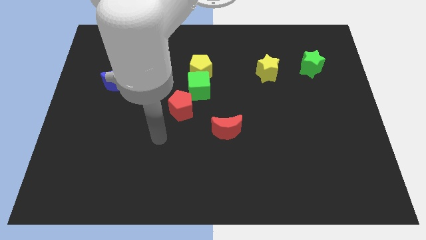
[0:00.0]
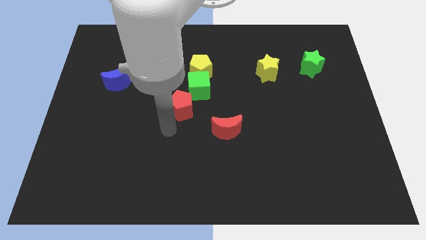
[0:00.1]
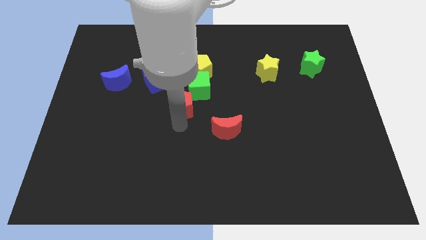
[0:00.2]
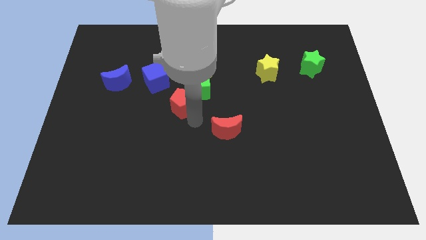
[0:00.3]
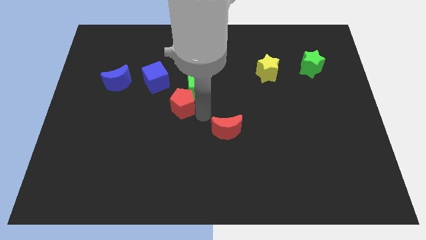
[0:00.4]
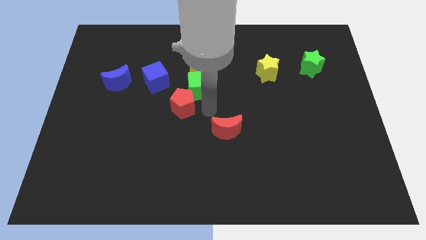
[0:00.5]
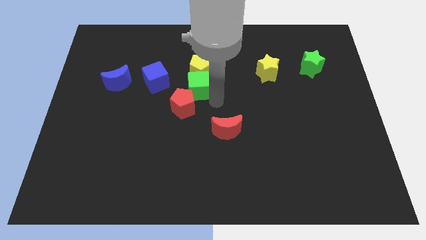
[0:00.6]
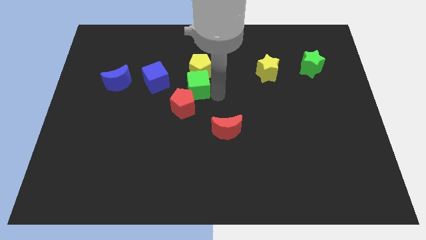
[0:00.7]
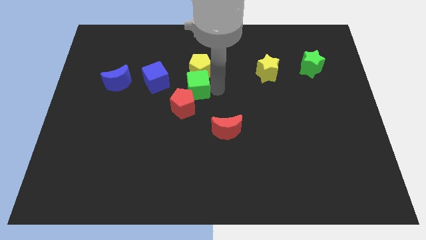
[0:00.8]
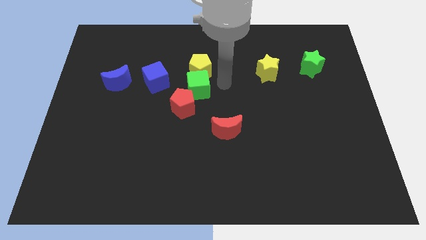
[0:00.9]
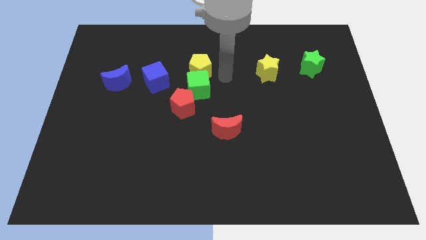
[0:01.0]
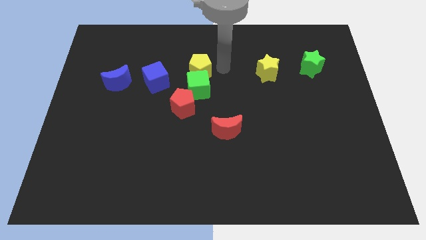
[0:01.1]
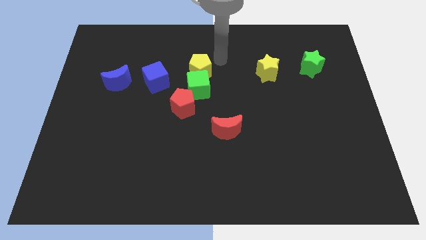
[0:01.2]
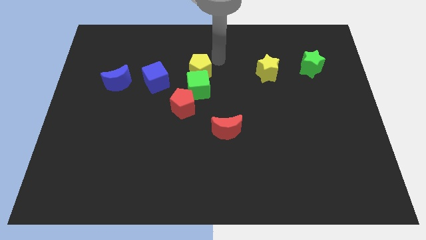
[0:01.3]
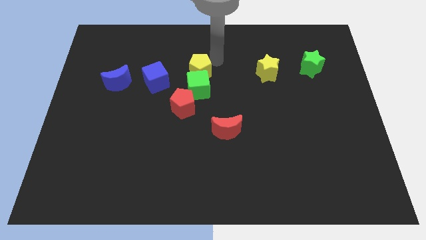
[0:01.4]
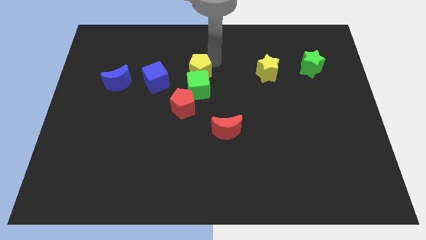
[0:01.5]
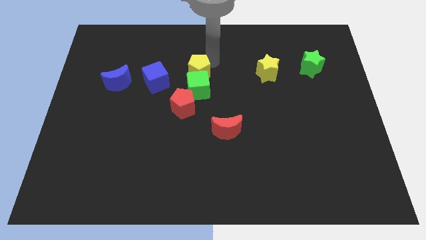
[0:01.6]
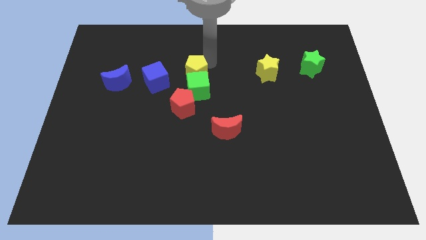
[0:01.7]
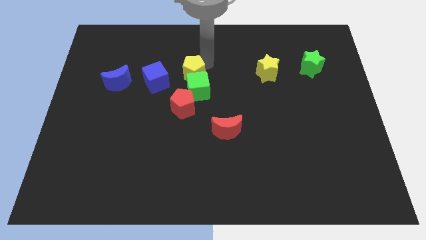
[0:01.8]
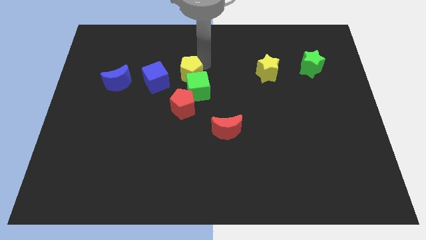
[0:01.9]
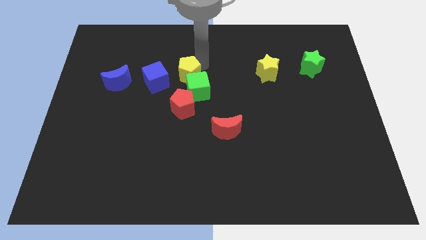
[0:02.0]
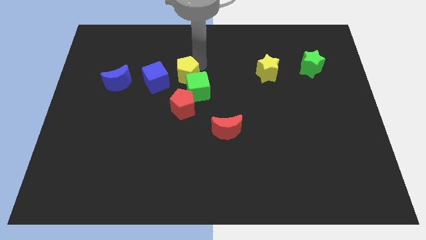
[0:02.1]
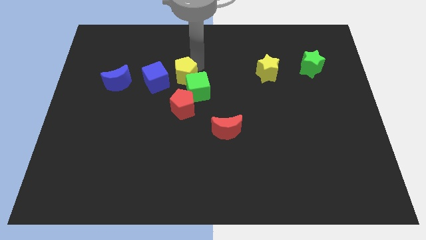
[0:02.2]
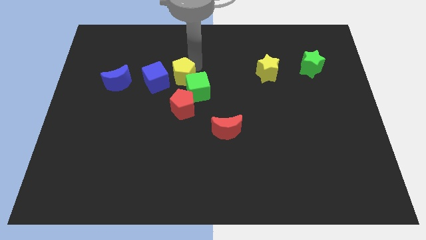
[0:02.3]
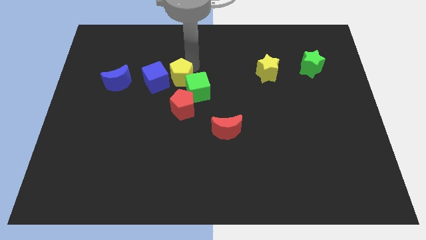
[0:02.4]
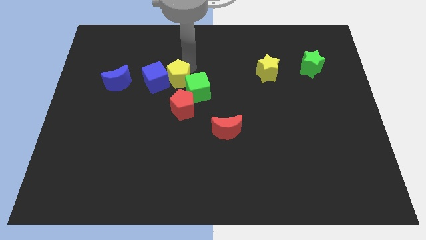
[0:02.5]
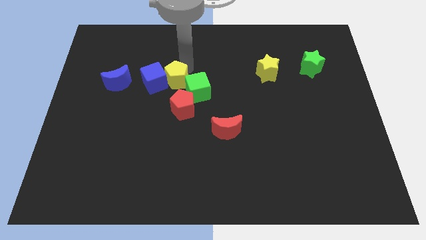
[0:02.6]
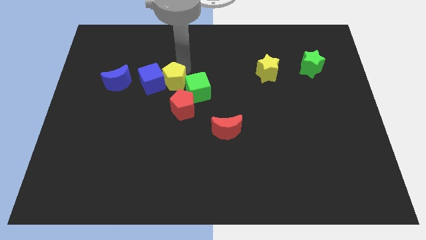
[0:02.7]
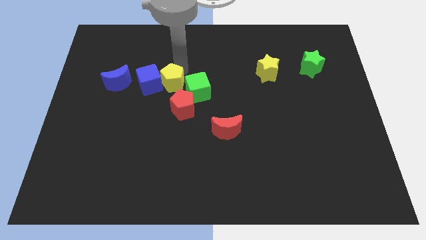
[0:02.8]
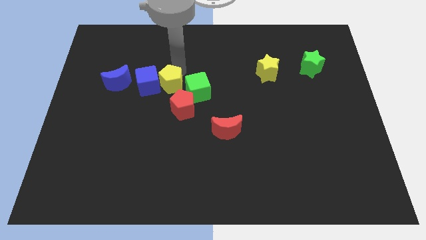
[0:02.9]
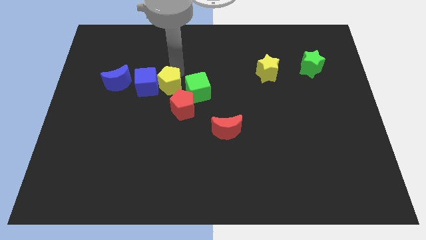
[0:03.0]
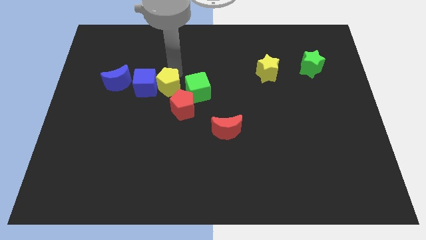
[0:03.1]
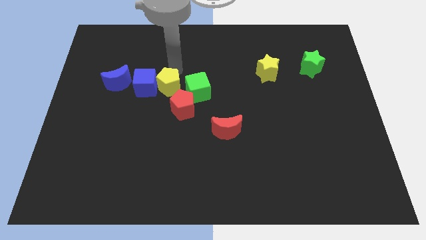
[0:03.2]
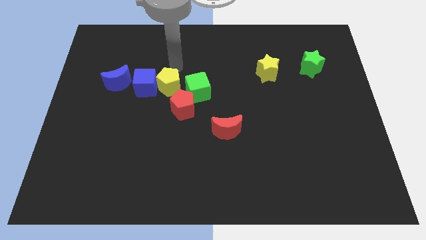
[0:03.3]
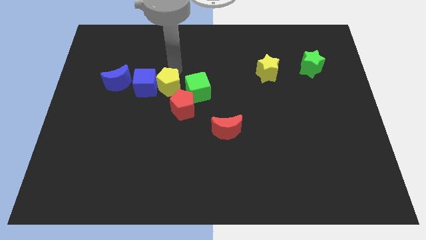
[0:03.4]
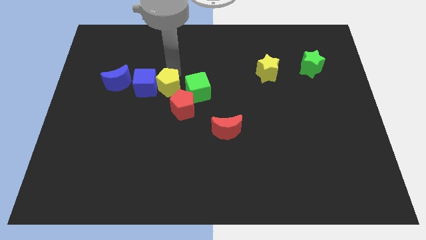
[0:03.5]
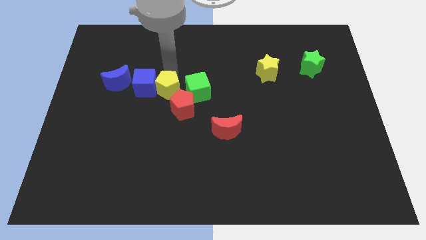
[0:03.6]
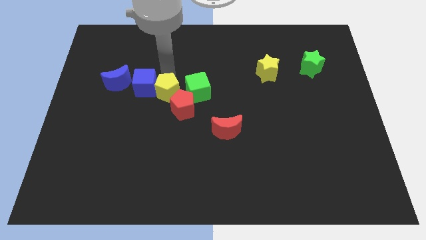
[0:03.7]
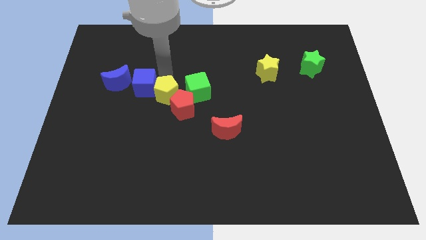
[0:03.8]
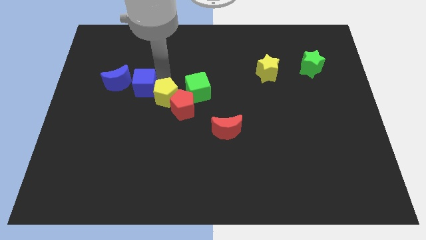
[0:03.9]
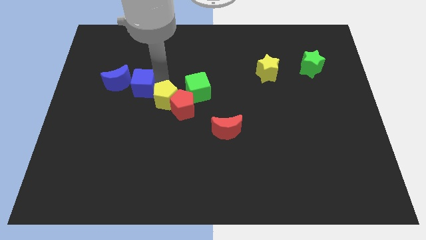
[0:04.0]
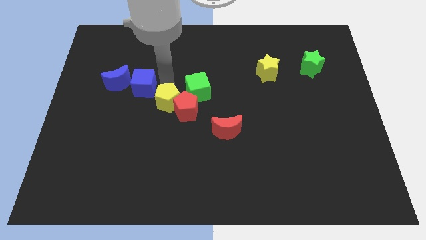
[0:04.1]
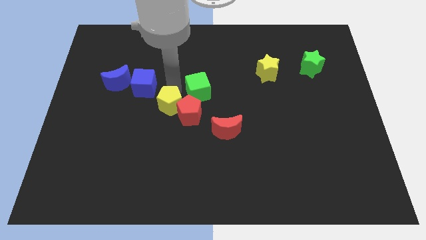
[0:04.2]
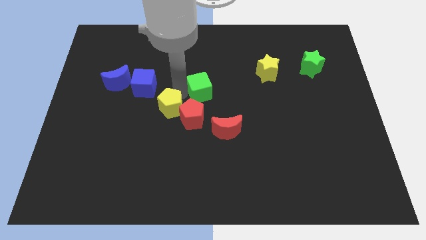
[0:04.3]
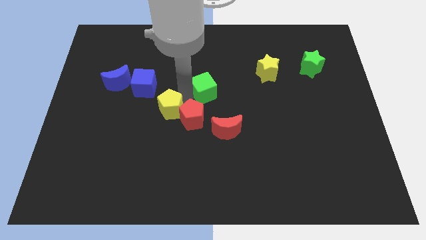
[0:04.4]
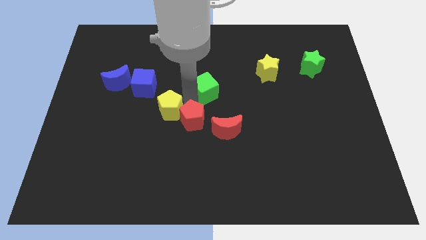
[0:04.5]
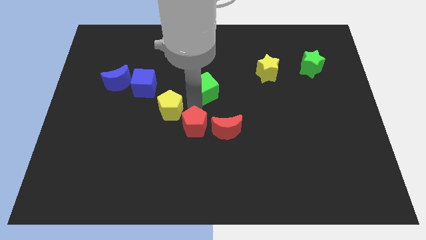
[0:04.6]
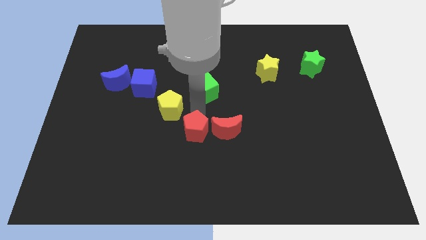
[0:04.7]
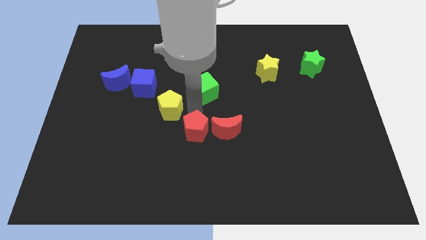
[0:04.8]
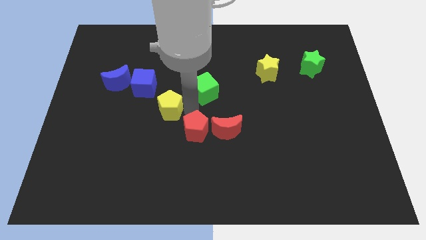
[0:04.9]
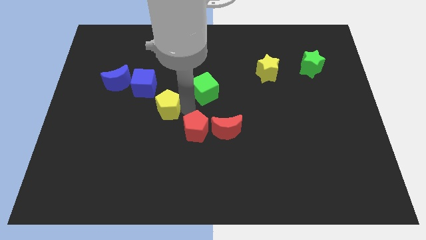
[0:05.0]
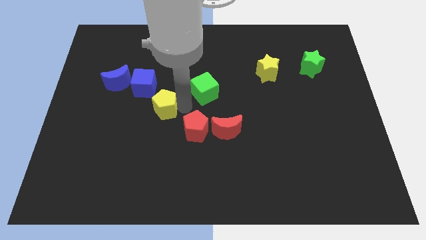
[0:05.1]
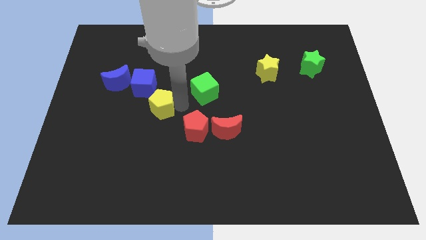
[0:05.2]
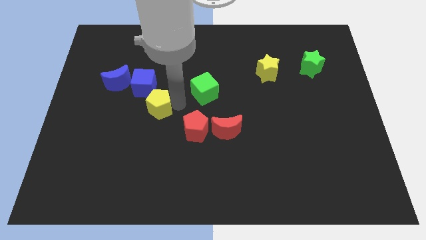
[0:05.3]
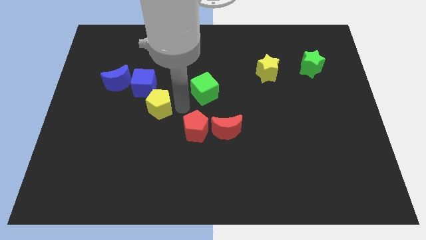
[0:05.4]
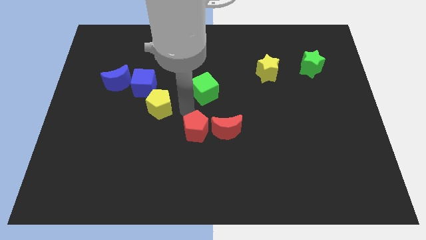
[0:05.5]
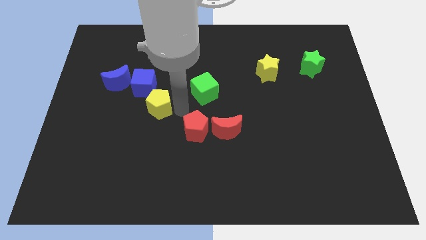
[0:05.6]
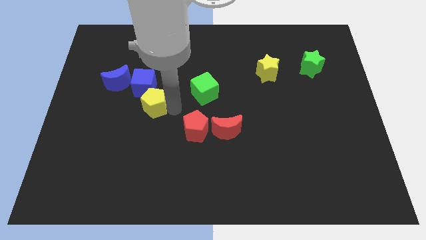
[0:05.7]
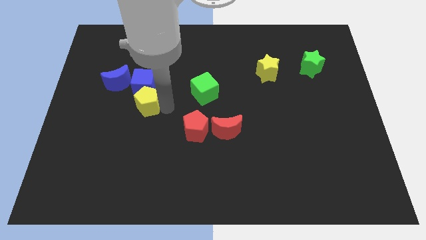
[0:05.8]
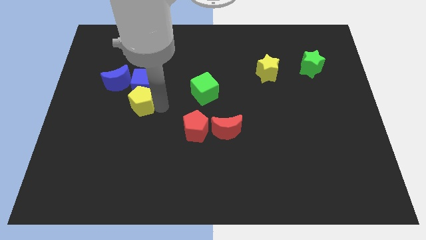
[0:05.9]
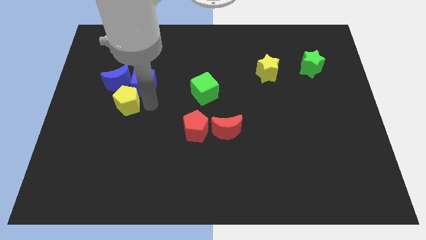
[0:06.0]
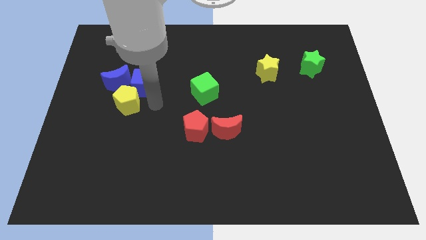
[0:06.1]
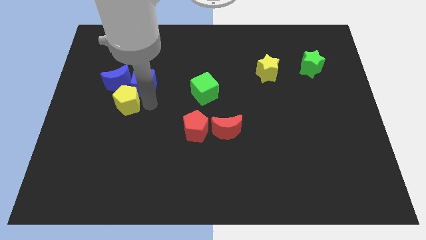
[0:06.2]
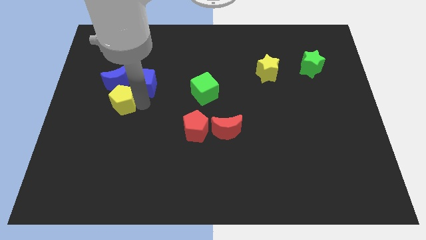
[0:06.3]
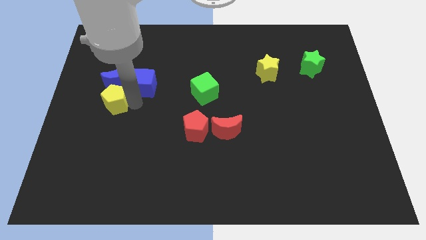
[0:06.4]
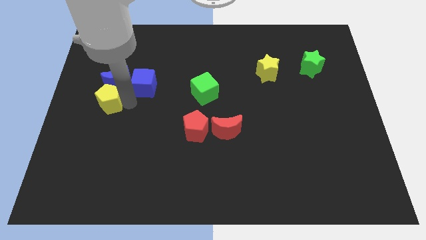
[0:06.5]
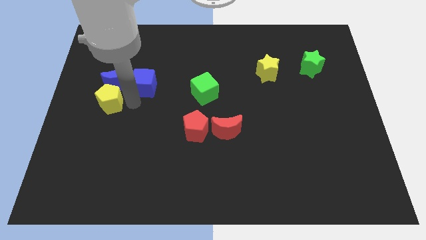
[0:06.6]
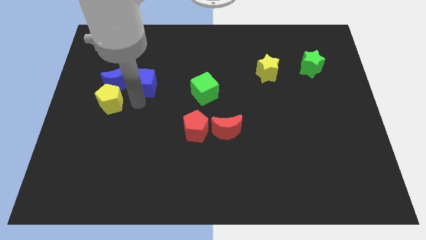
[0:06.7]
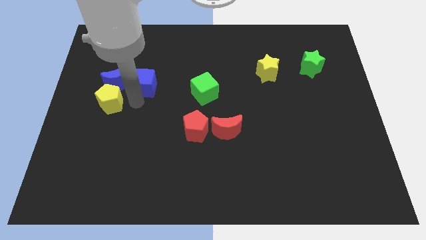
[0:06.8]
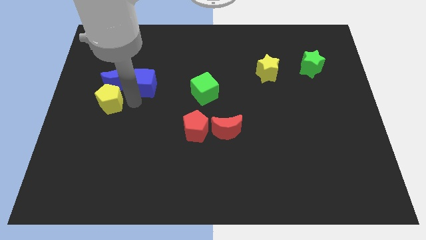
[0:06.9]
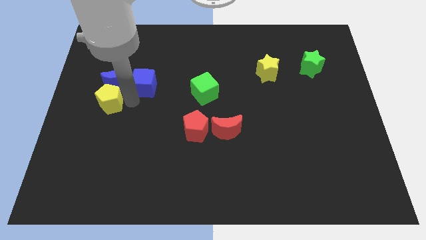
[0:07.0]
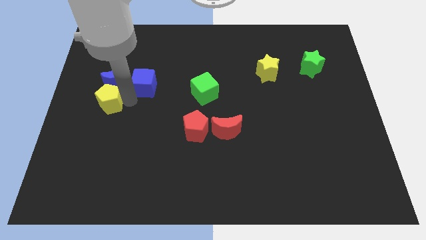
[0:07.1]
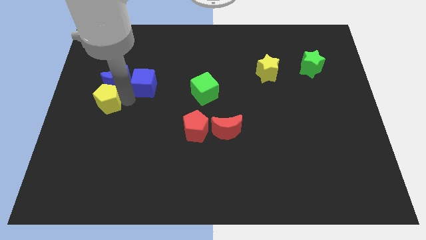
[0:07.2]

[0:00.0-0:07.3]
move the yellow pentagon to the left side of the board
